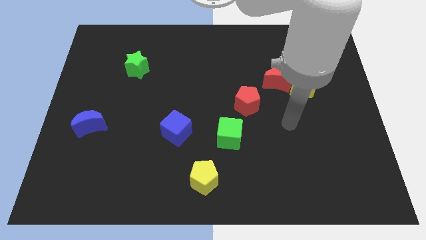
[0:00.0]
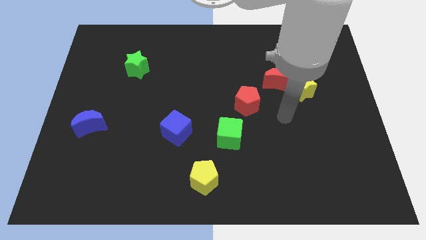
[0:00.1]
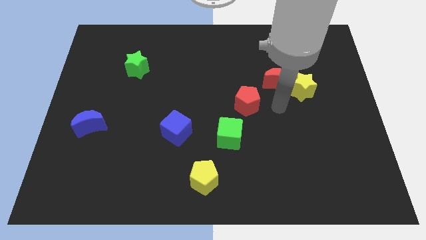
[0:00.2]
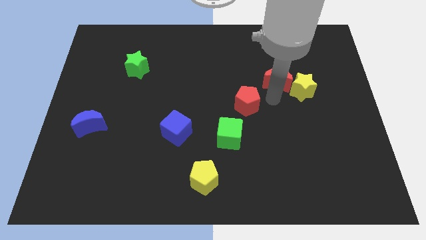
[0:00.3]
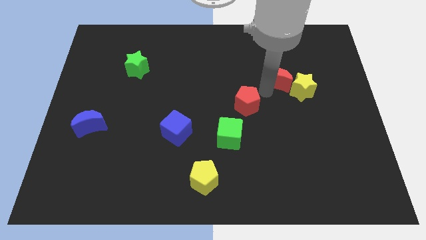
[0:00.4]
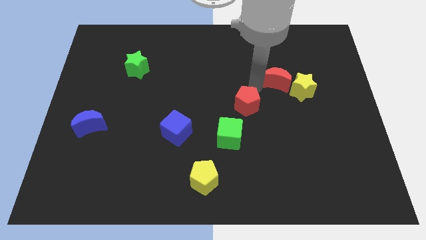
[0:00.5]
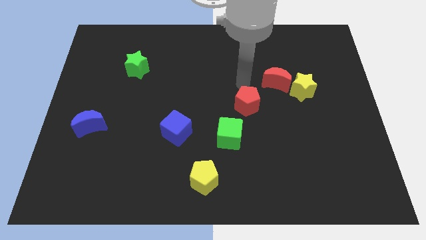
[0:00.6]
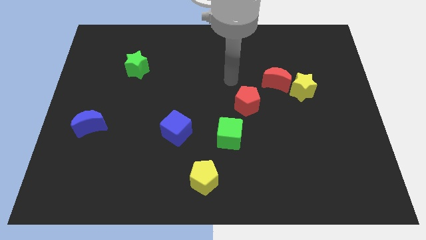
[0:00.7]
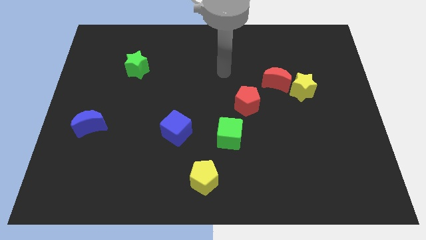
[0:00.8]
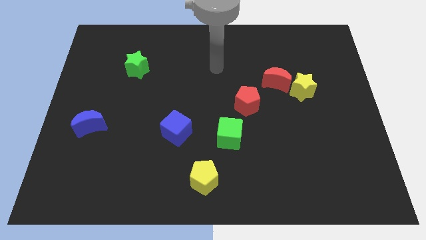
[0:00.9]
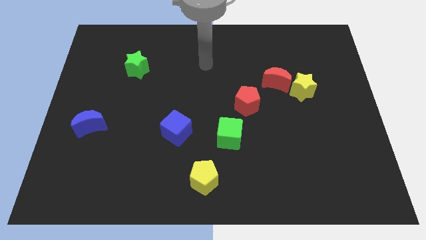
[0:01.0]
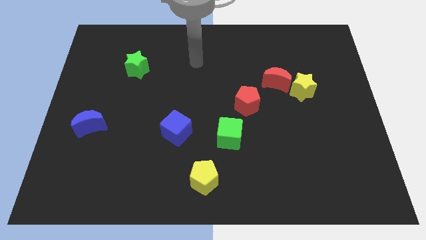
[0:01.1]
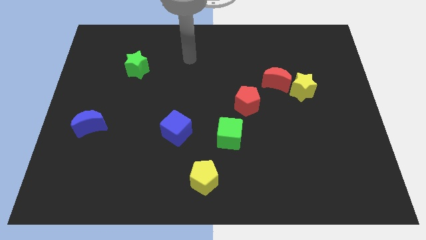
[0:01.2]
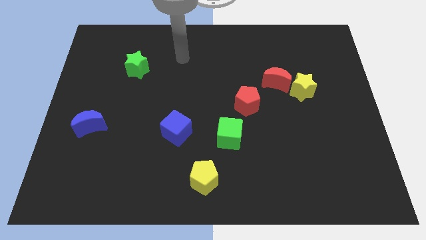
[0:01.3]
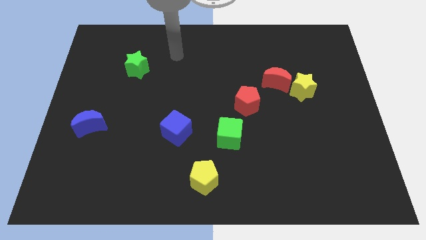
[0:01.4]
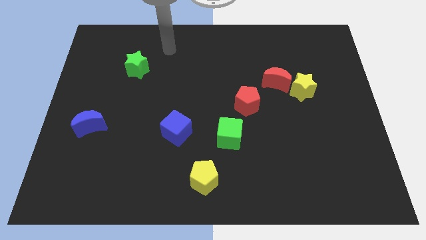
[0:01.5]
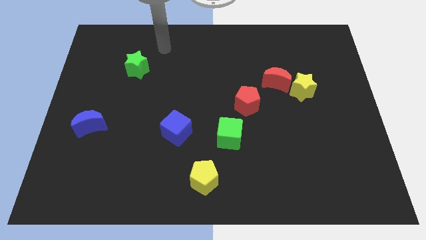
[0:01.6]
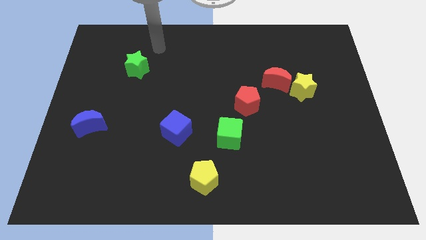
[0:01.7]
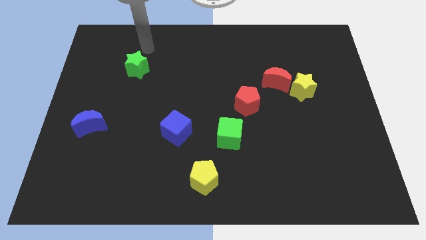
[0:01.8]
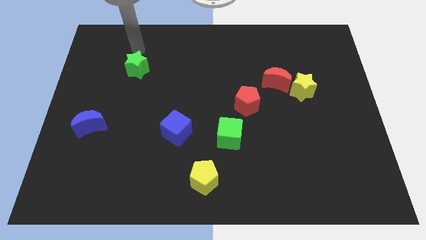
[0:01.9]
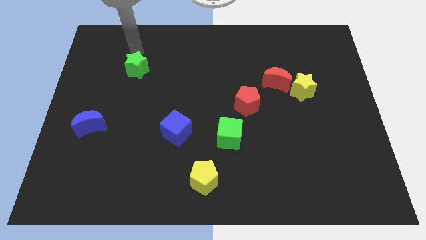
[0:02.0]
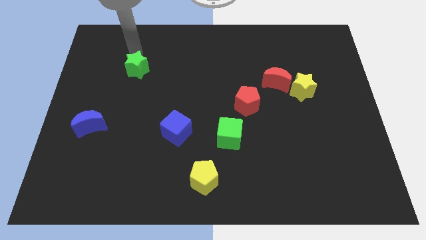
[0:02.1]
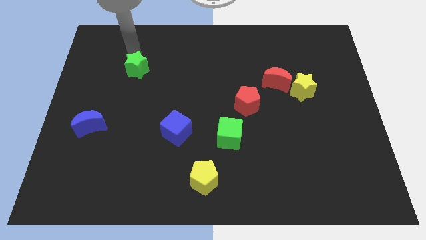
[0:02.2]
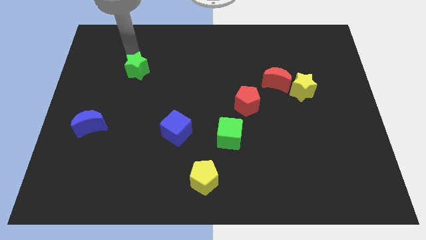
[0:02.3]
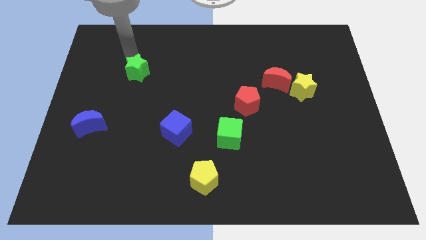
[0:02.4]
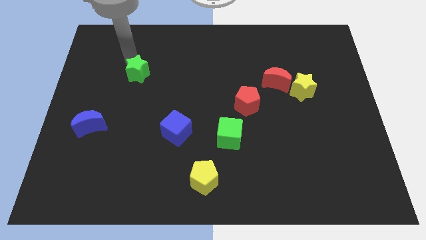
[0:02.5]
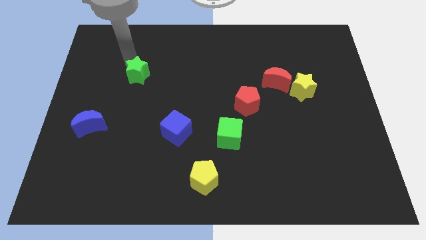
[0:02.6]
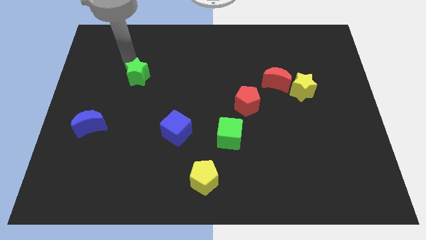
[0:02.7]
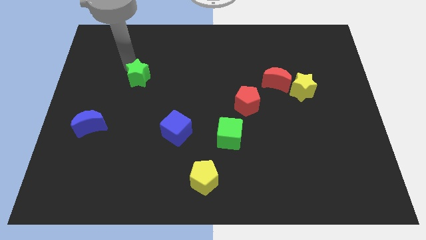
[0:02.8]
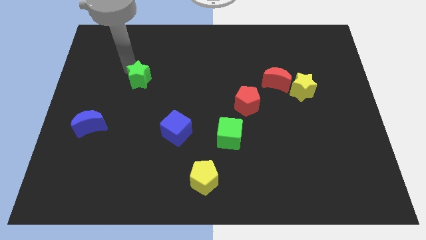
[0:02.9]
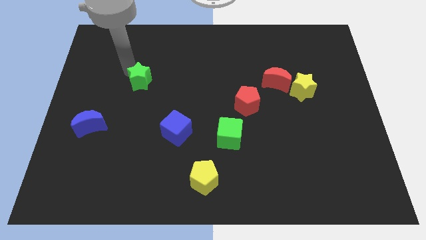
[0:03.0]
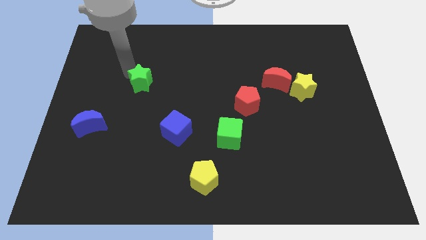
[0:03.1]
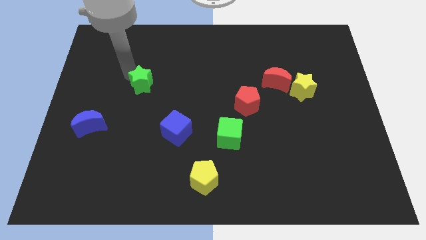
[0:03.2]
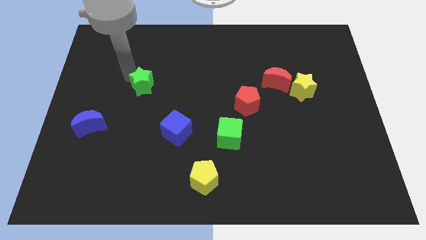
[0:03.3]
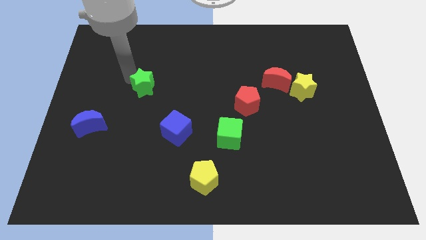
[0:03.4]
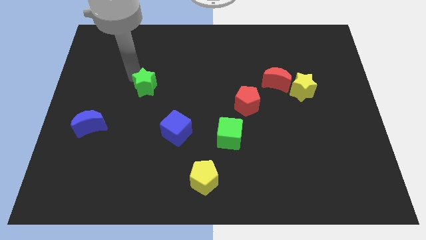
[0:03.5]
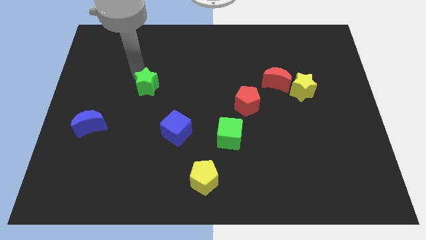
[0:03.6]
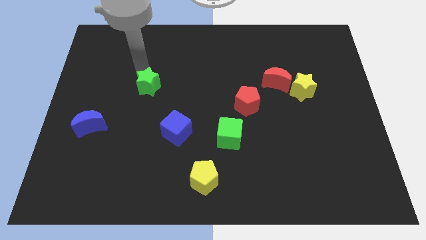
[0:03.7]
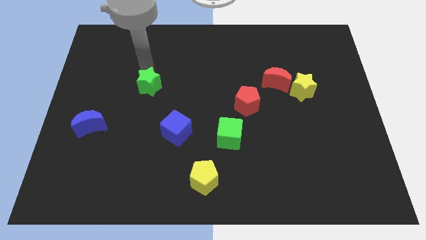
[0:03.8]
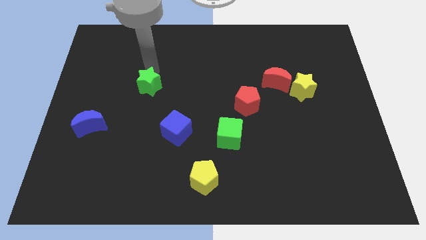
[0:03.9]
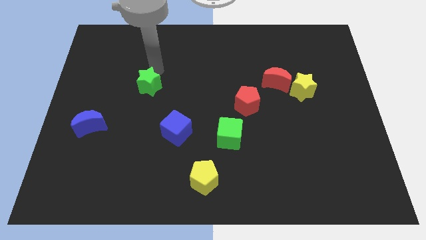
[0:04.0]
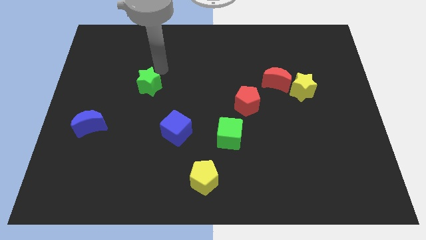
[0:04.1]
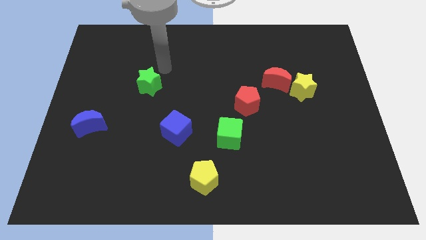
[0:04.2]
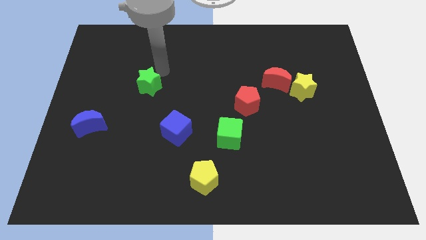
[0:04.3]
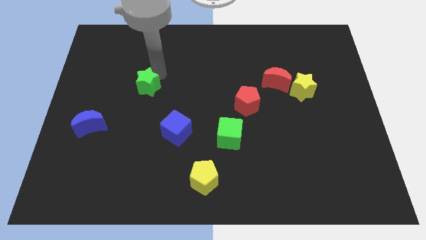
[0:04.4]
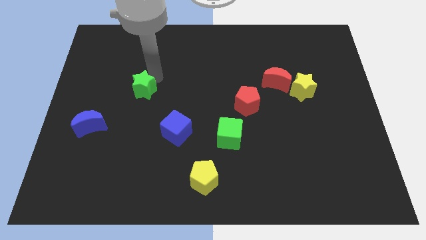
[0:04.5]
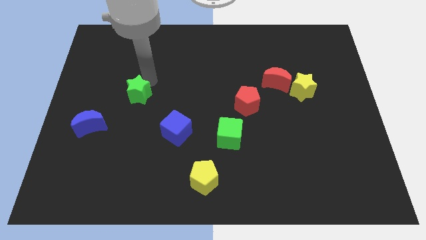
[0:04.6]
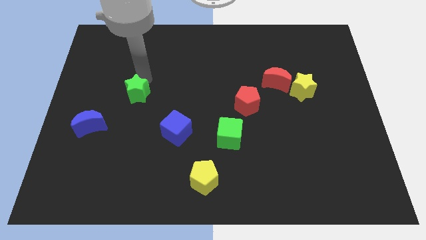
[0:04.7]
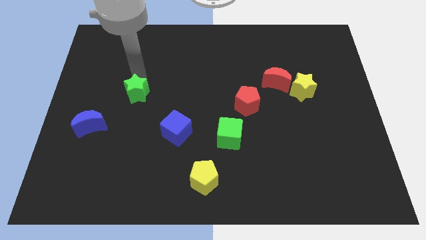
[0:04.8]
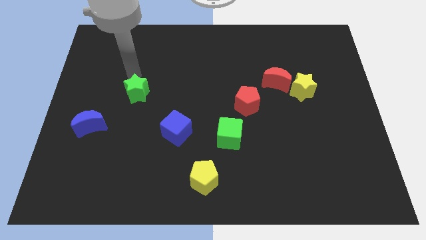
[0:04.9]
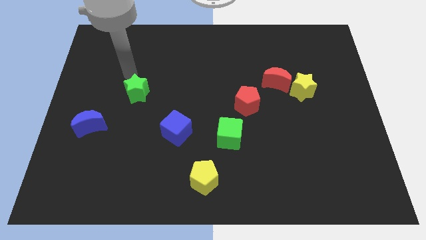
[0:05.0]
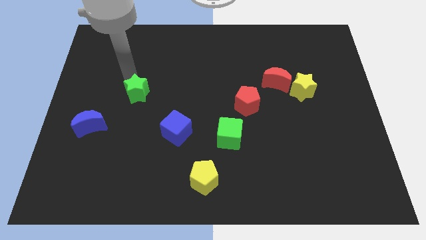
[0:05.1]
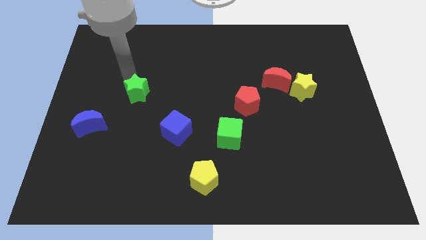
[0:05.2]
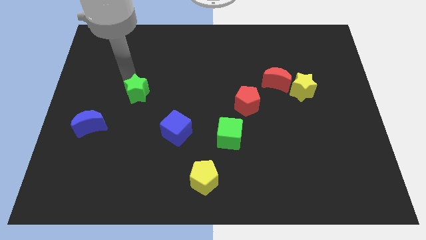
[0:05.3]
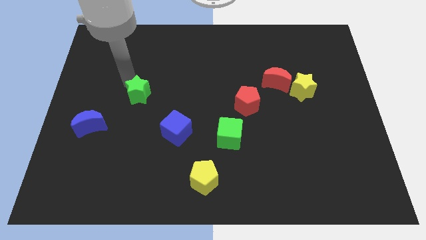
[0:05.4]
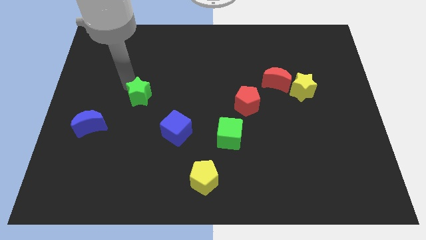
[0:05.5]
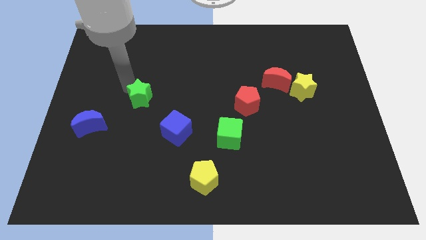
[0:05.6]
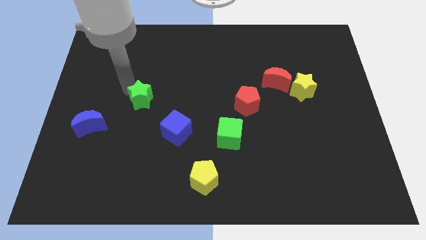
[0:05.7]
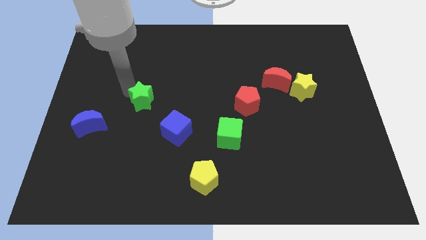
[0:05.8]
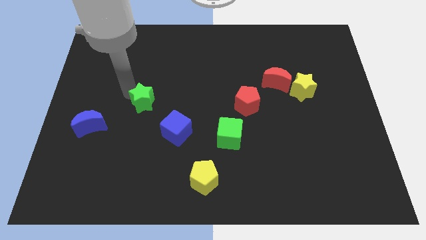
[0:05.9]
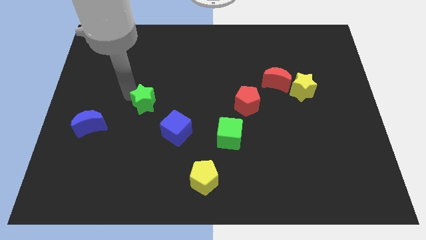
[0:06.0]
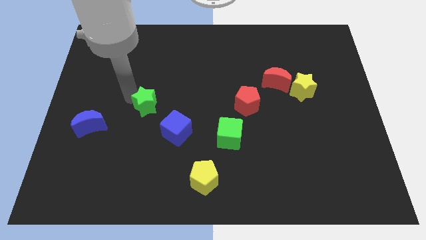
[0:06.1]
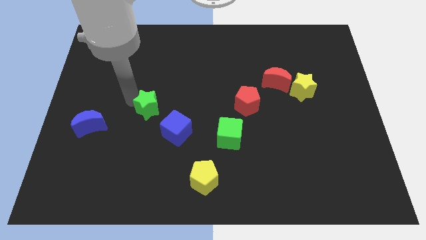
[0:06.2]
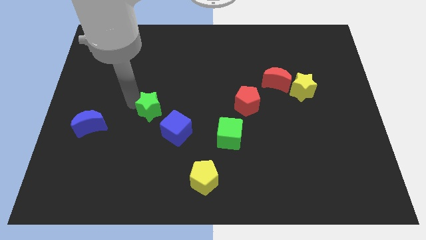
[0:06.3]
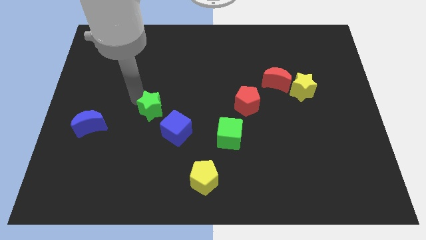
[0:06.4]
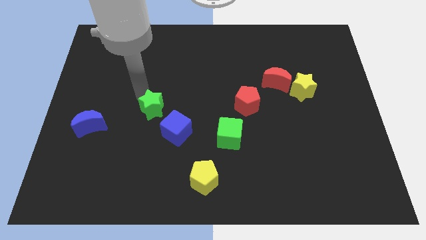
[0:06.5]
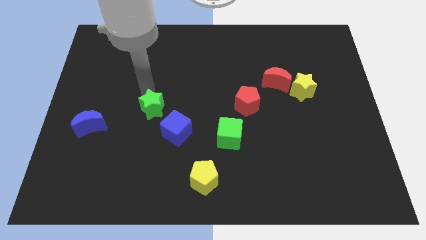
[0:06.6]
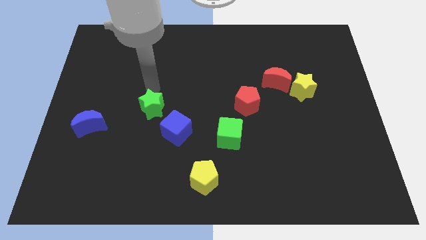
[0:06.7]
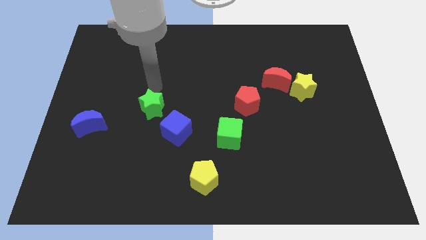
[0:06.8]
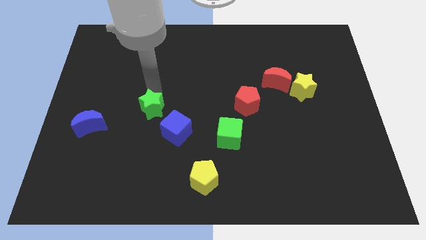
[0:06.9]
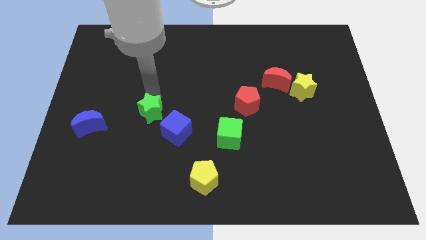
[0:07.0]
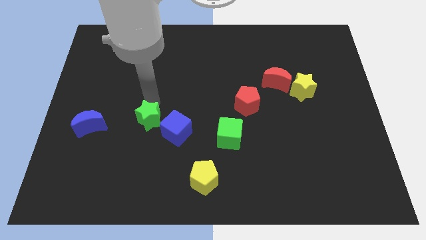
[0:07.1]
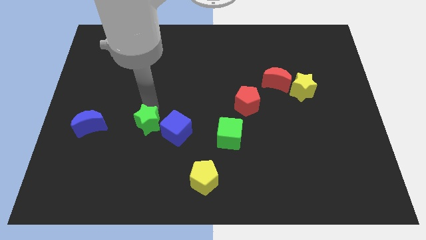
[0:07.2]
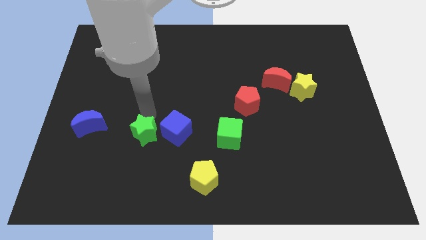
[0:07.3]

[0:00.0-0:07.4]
put the green star to the bottom left side of the blue cube

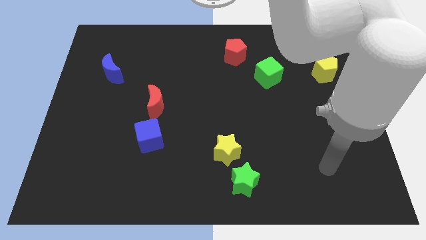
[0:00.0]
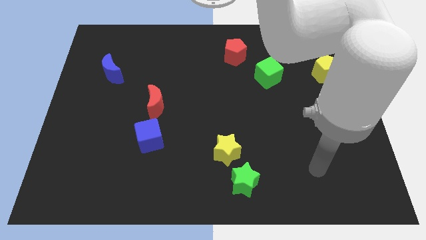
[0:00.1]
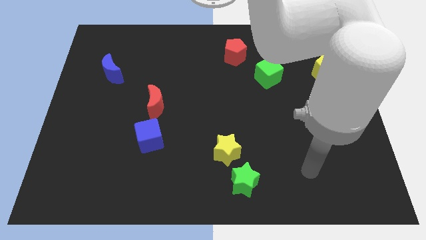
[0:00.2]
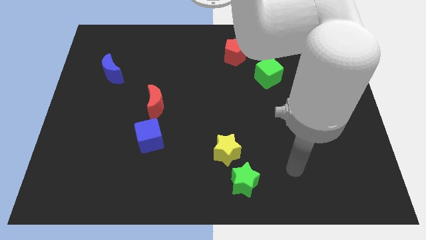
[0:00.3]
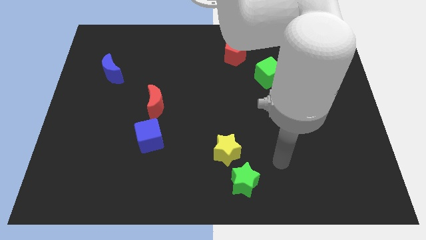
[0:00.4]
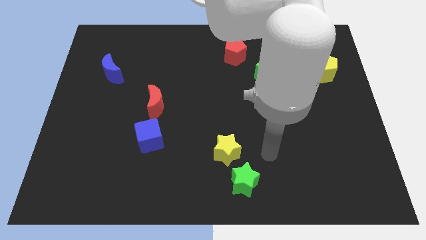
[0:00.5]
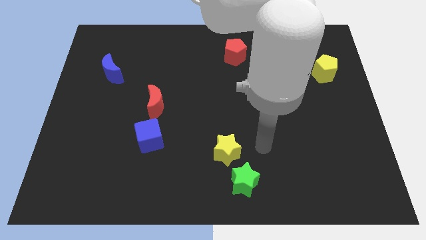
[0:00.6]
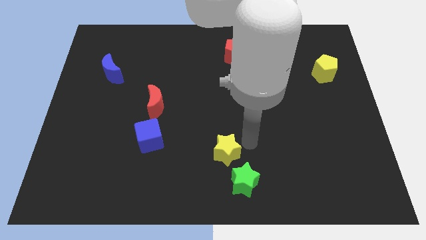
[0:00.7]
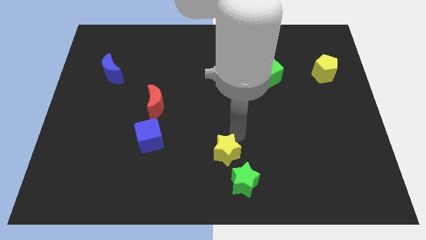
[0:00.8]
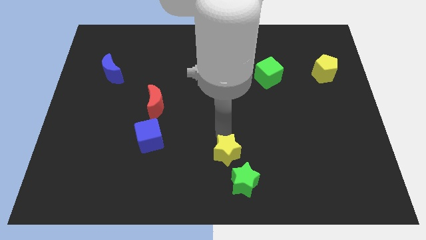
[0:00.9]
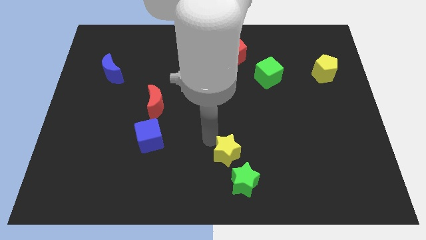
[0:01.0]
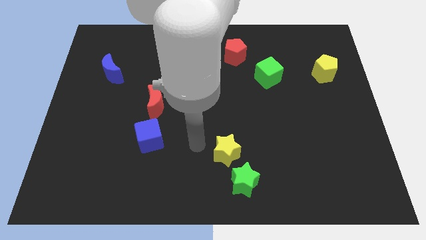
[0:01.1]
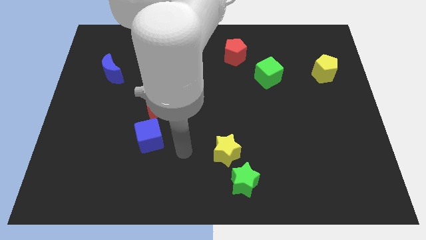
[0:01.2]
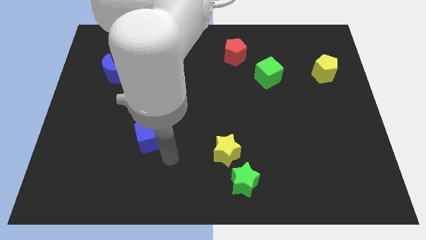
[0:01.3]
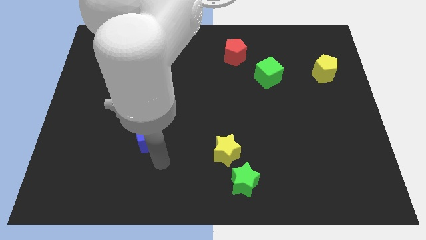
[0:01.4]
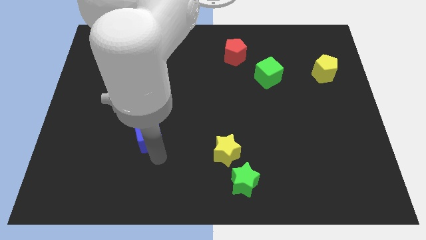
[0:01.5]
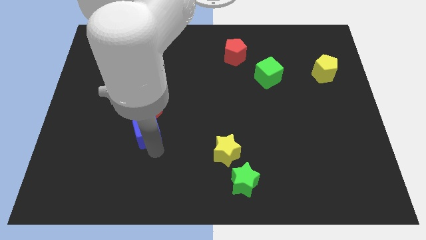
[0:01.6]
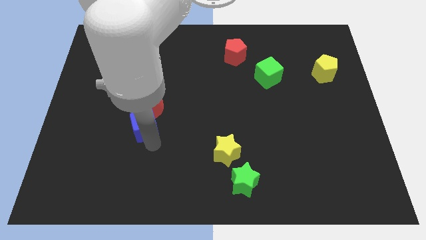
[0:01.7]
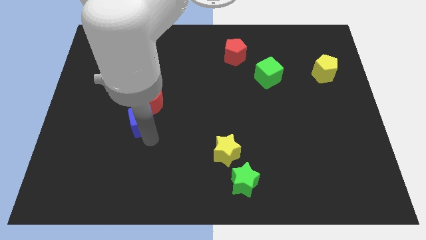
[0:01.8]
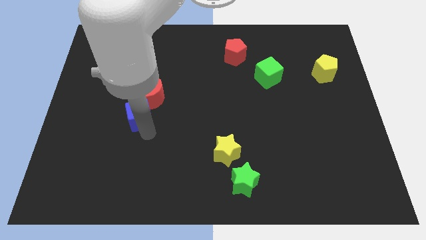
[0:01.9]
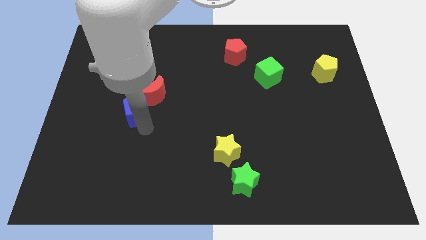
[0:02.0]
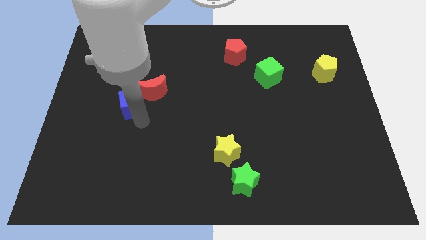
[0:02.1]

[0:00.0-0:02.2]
put the blue cube diagonally down and to the right of the blue moon
